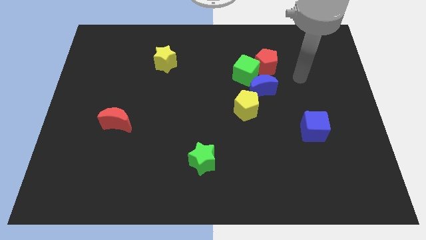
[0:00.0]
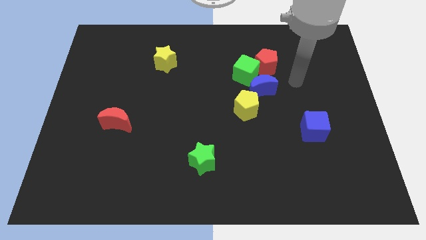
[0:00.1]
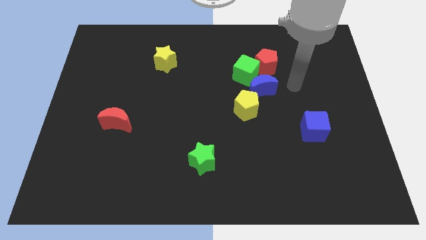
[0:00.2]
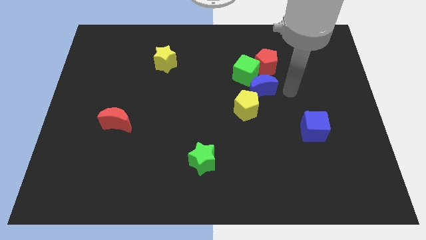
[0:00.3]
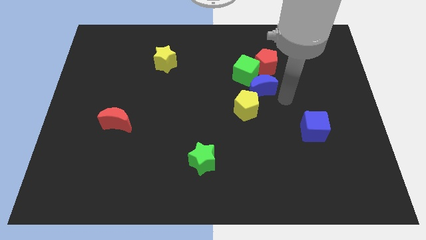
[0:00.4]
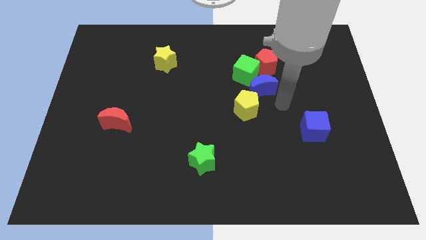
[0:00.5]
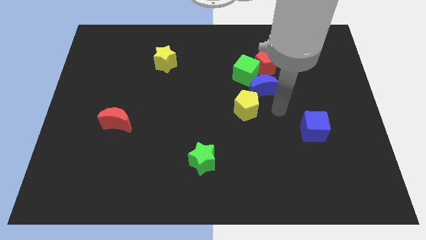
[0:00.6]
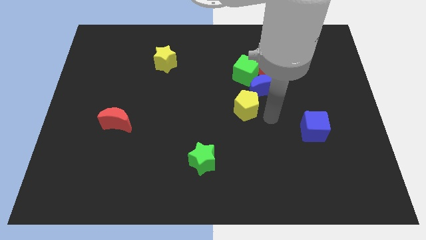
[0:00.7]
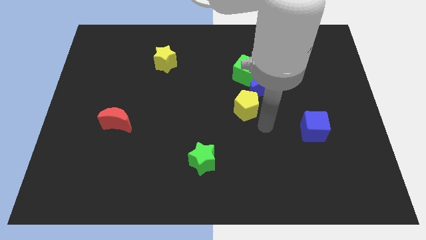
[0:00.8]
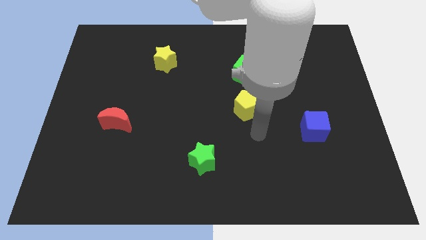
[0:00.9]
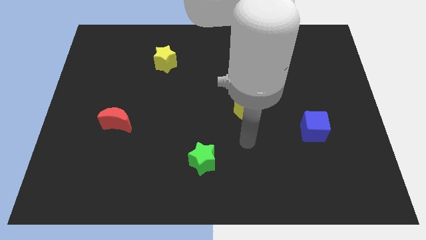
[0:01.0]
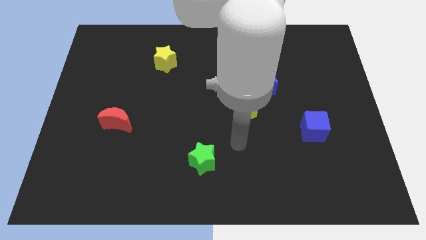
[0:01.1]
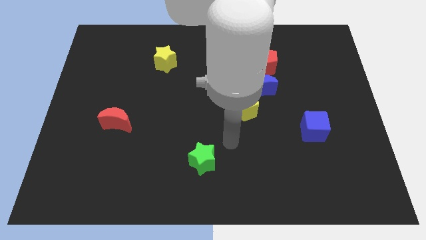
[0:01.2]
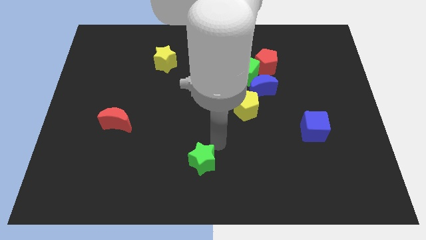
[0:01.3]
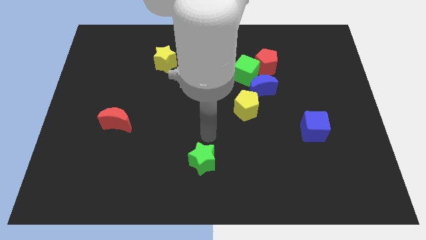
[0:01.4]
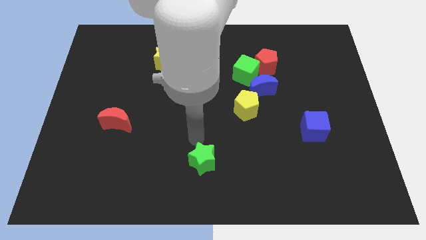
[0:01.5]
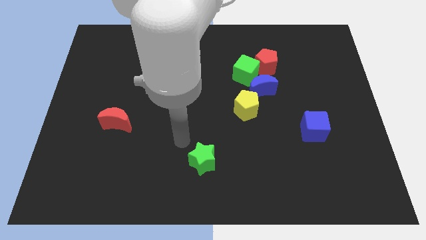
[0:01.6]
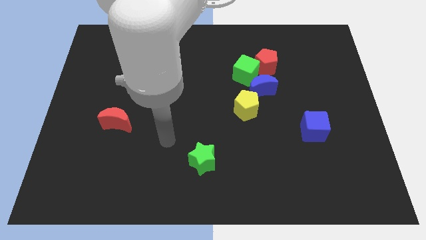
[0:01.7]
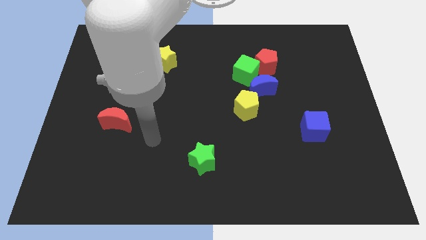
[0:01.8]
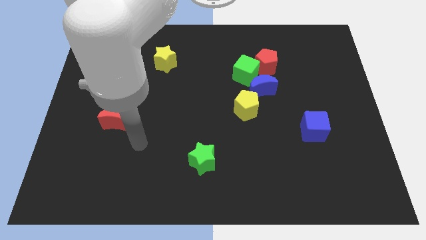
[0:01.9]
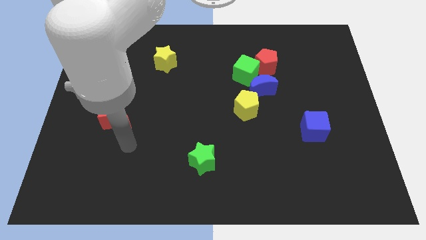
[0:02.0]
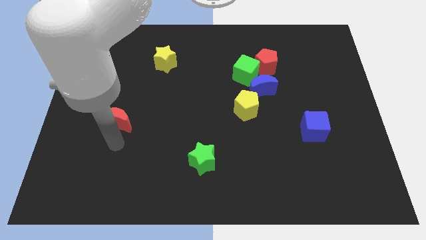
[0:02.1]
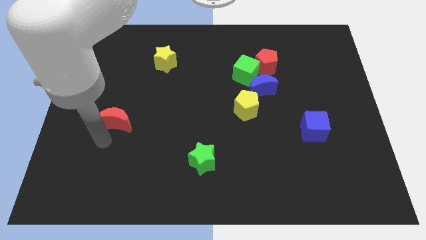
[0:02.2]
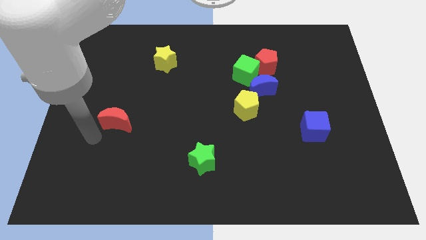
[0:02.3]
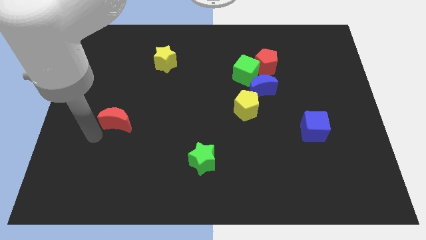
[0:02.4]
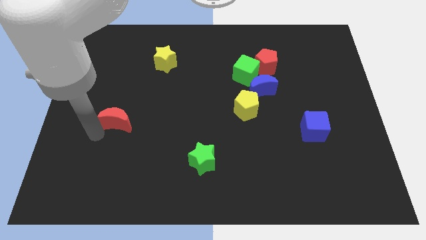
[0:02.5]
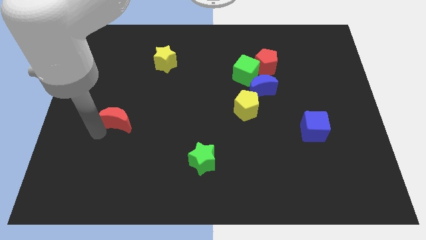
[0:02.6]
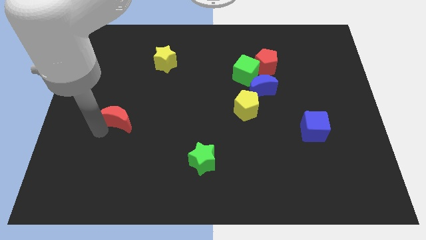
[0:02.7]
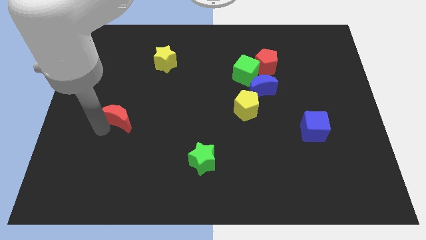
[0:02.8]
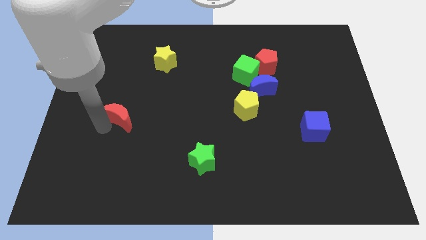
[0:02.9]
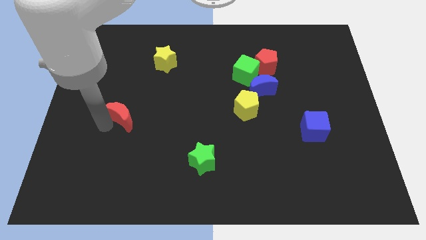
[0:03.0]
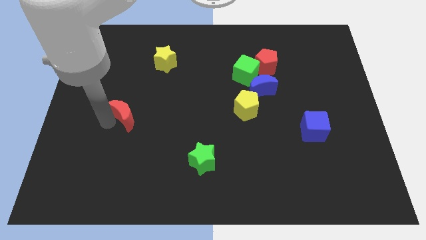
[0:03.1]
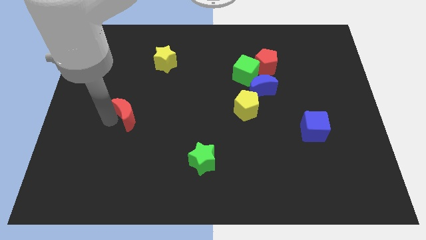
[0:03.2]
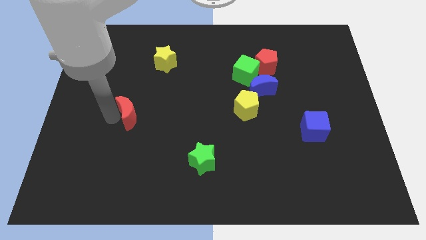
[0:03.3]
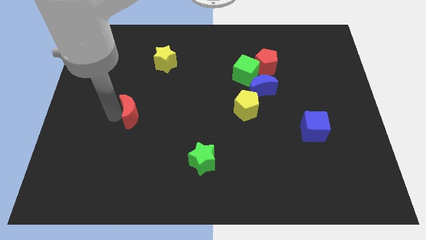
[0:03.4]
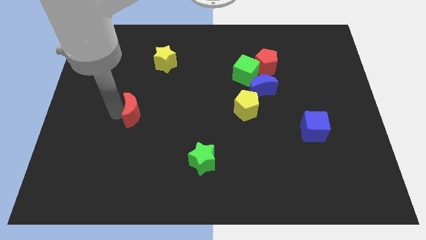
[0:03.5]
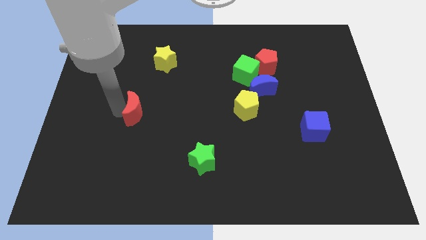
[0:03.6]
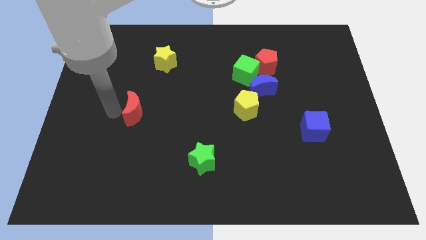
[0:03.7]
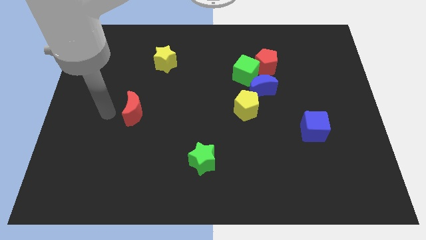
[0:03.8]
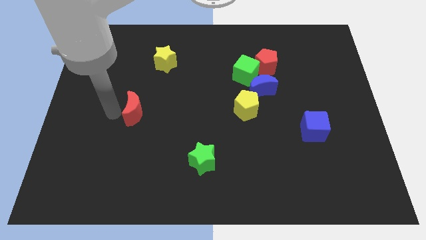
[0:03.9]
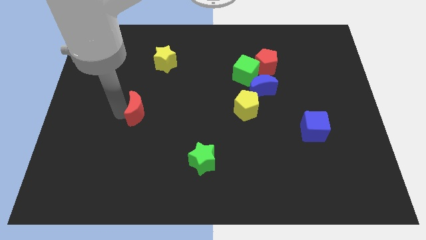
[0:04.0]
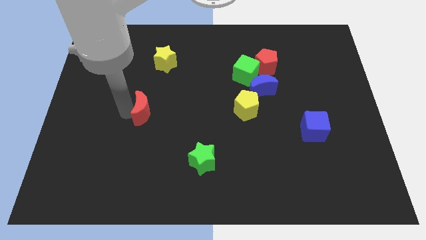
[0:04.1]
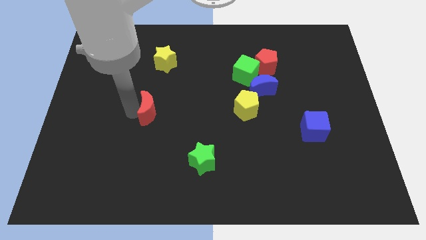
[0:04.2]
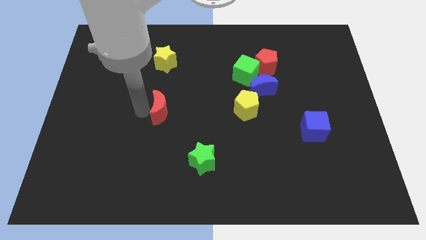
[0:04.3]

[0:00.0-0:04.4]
slightly push the red moon right

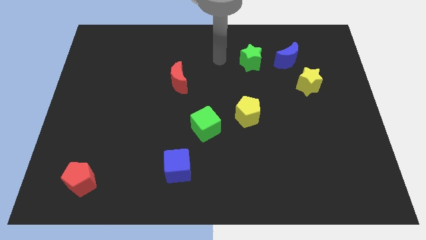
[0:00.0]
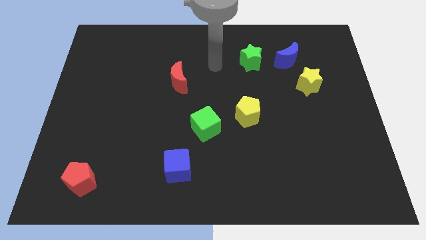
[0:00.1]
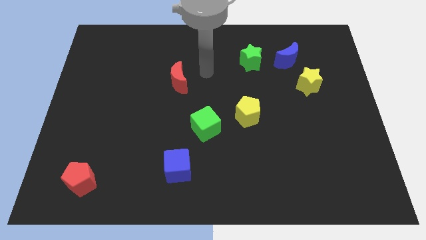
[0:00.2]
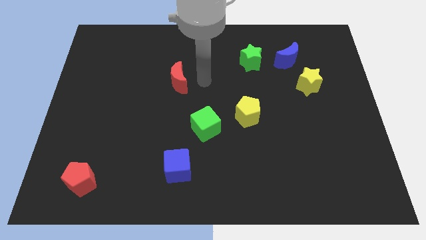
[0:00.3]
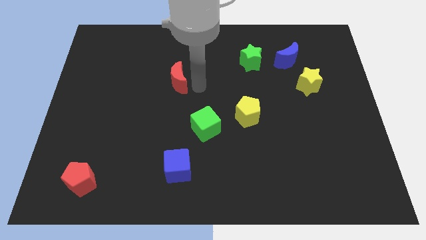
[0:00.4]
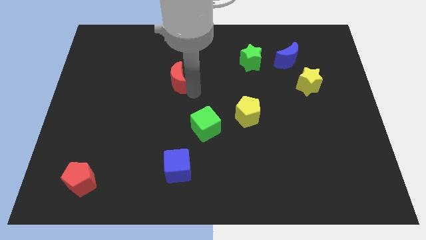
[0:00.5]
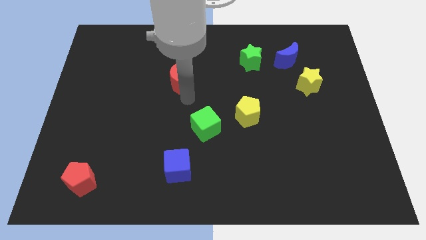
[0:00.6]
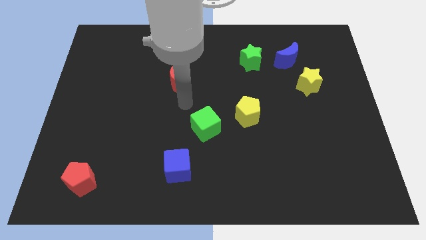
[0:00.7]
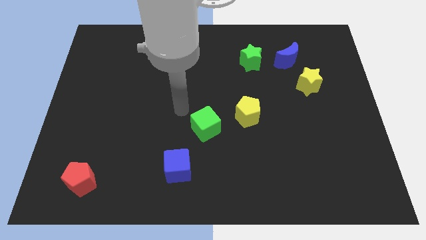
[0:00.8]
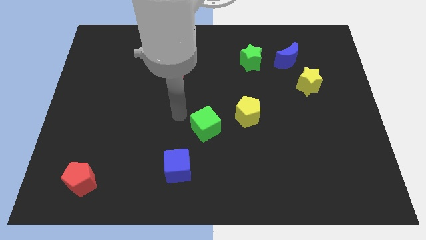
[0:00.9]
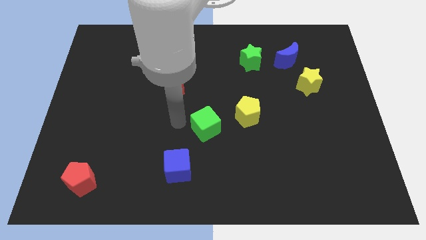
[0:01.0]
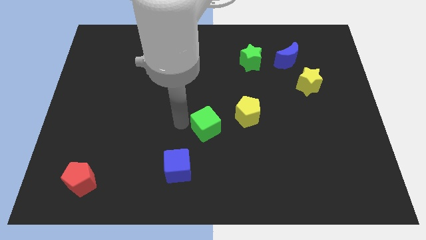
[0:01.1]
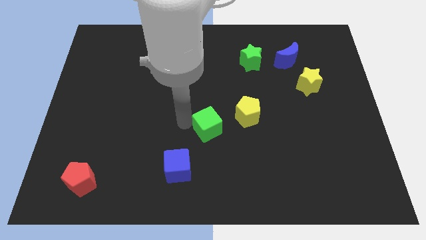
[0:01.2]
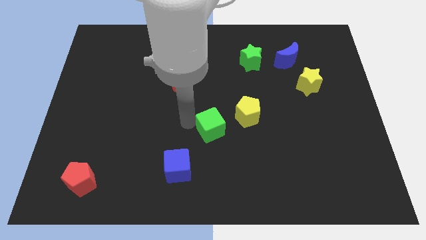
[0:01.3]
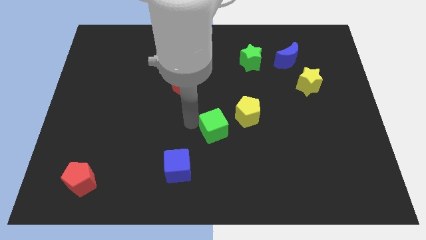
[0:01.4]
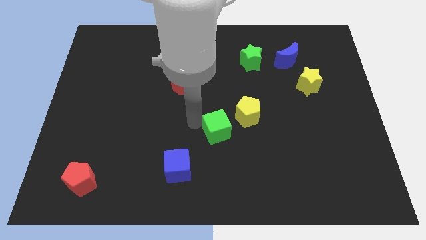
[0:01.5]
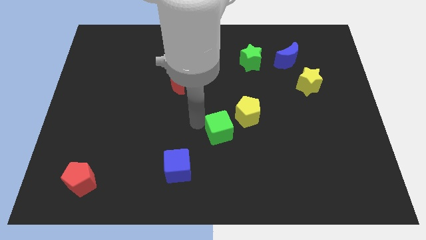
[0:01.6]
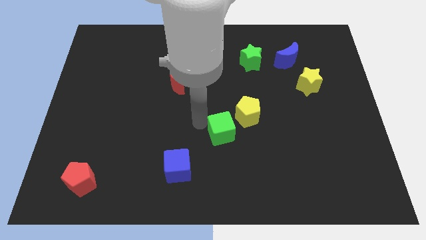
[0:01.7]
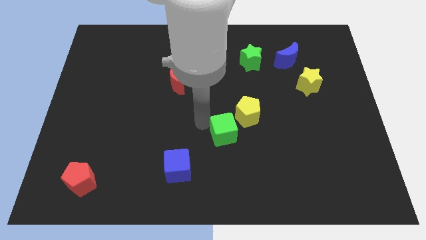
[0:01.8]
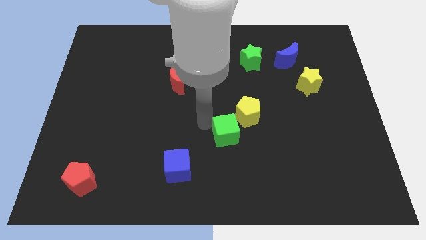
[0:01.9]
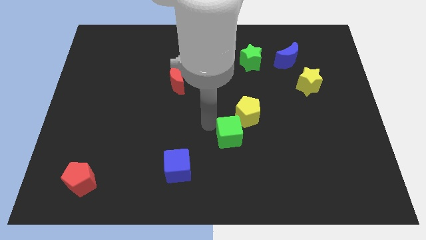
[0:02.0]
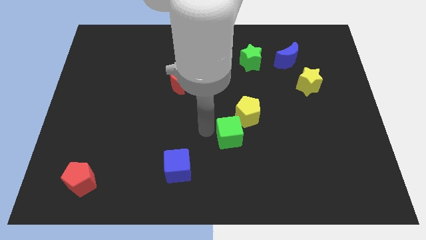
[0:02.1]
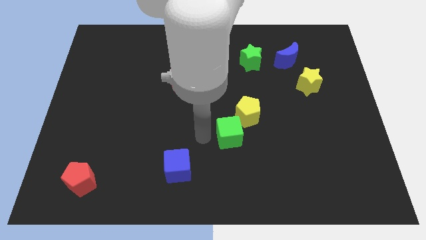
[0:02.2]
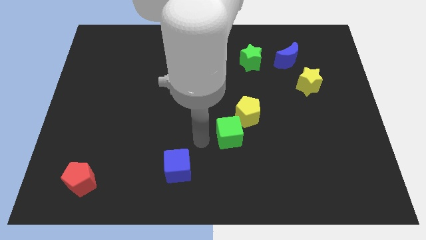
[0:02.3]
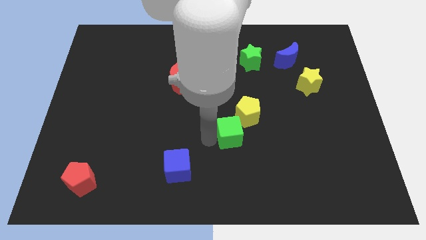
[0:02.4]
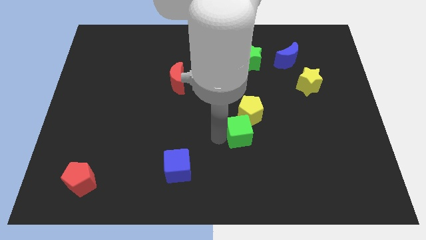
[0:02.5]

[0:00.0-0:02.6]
slide the green cube right somewhat

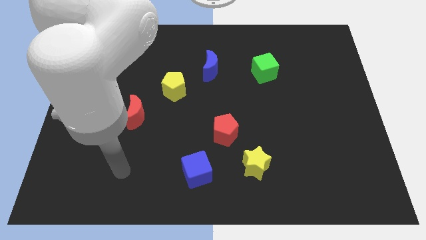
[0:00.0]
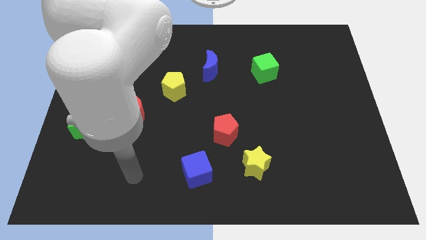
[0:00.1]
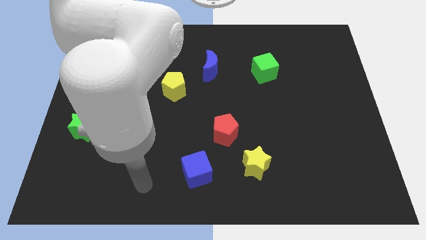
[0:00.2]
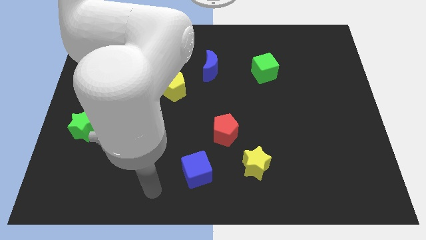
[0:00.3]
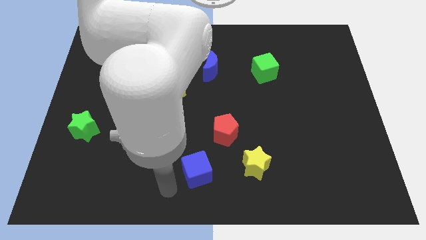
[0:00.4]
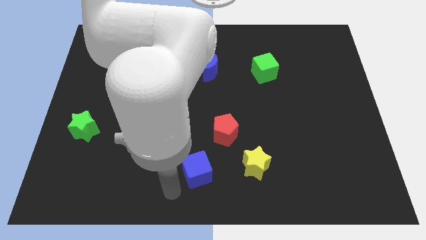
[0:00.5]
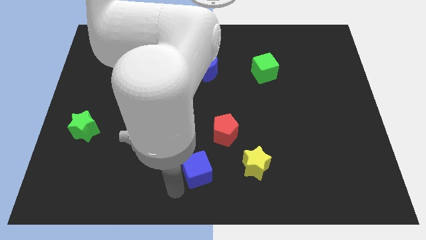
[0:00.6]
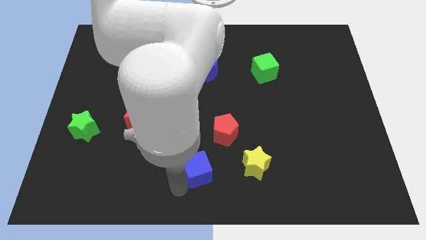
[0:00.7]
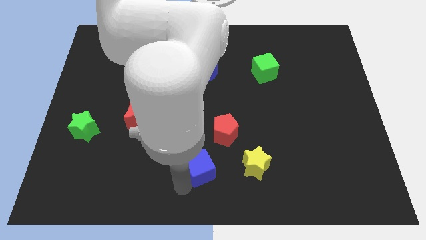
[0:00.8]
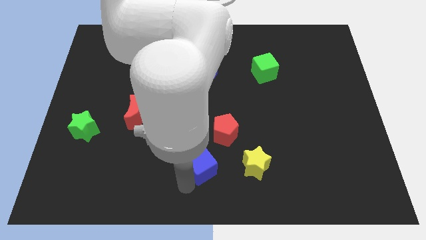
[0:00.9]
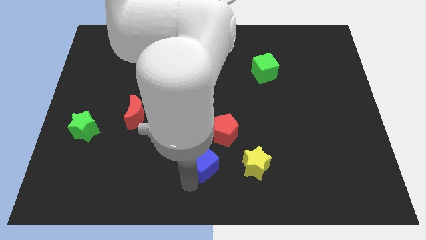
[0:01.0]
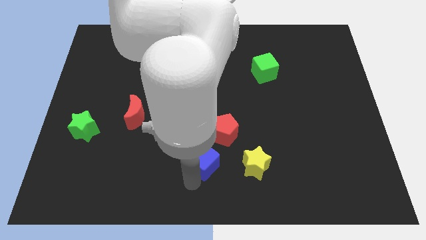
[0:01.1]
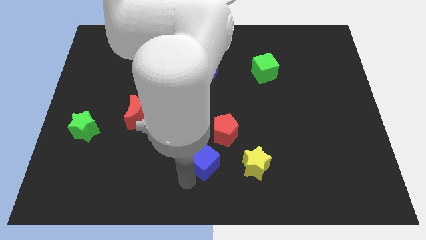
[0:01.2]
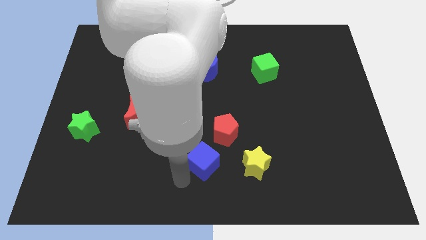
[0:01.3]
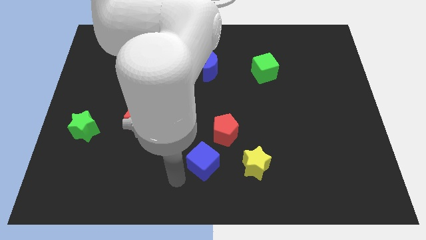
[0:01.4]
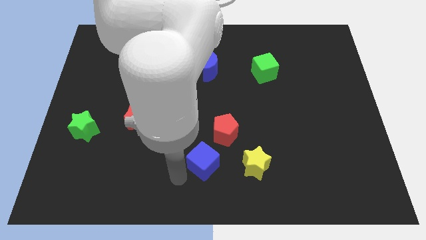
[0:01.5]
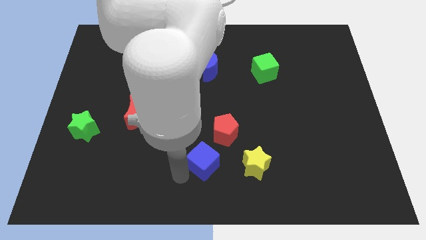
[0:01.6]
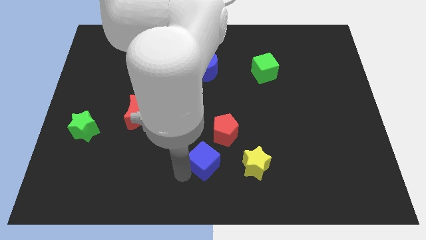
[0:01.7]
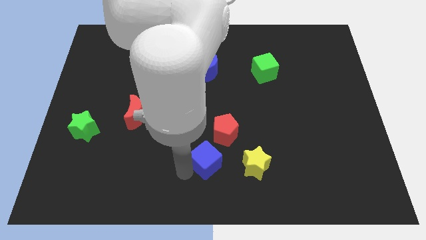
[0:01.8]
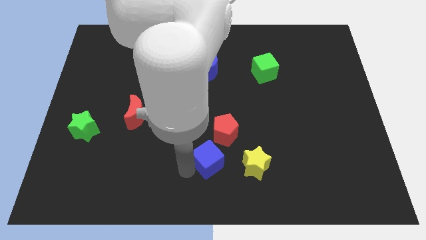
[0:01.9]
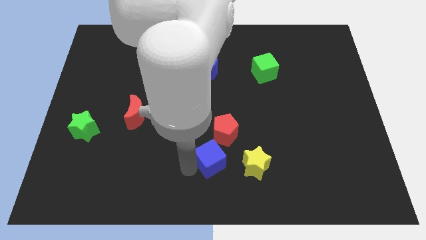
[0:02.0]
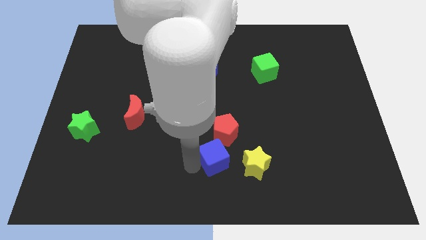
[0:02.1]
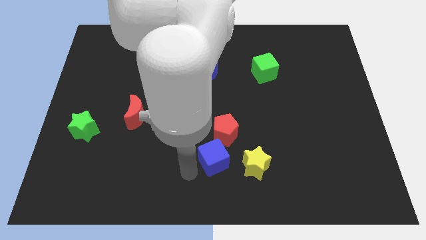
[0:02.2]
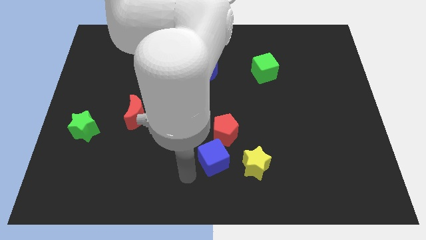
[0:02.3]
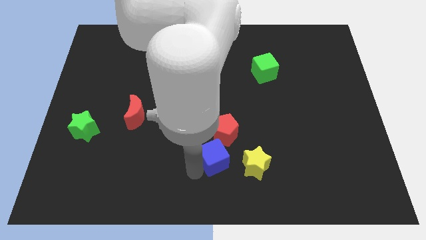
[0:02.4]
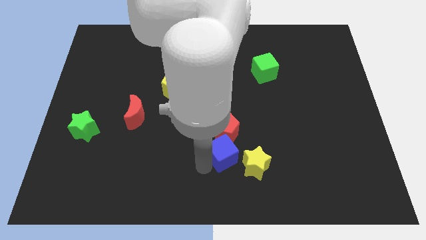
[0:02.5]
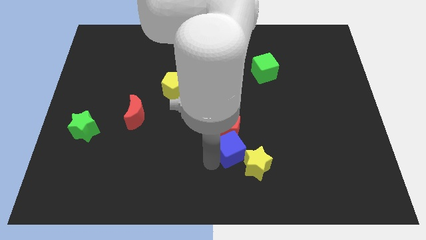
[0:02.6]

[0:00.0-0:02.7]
push the blue cube a little upwards and then right
